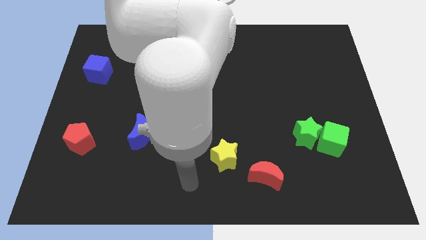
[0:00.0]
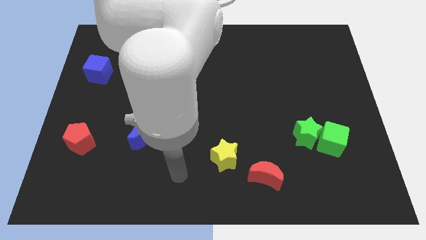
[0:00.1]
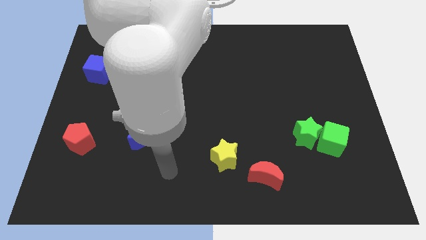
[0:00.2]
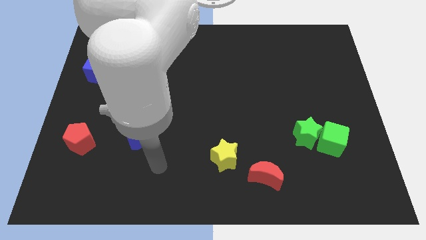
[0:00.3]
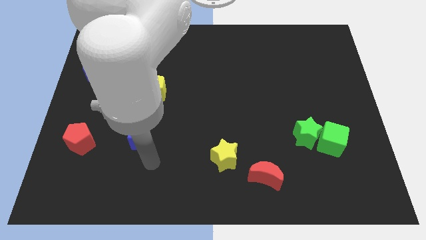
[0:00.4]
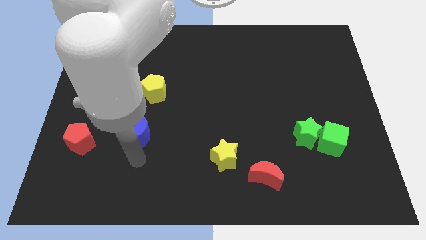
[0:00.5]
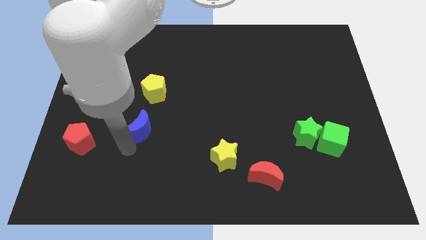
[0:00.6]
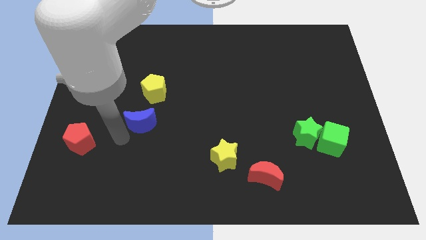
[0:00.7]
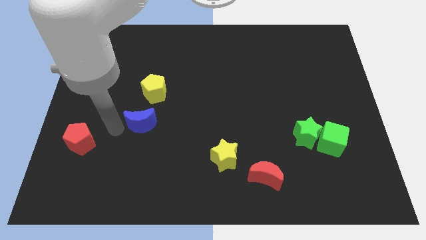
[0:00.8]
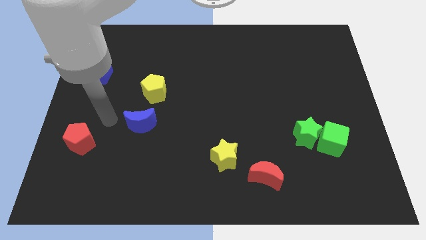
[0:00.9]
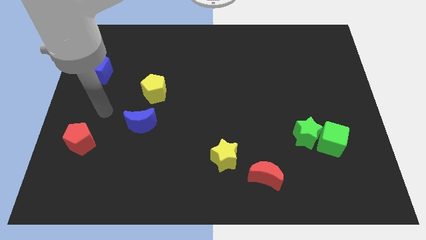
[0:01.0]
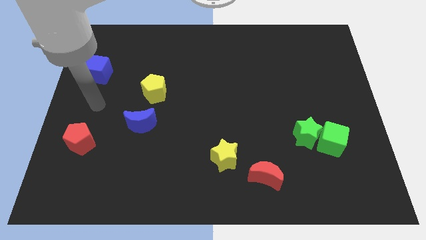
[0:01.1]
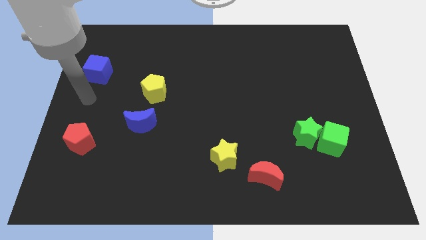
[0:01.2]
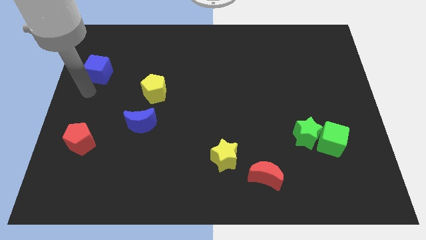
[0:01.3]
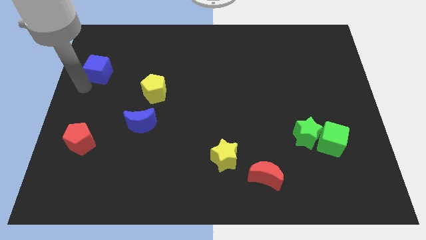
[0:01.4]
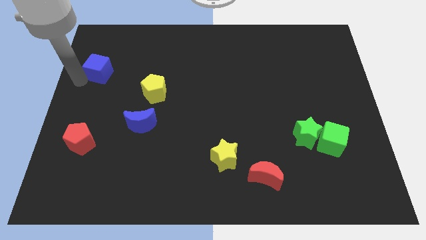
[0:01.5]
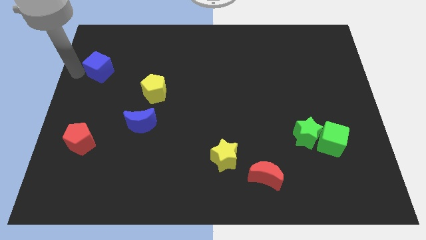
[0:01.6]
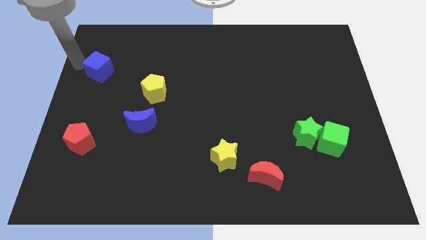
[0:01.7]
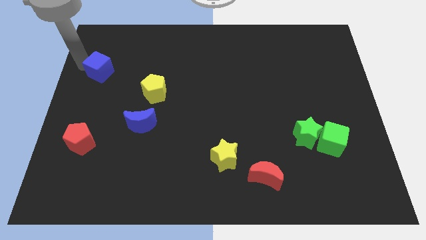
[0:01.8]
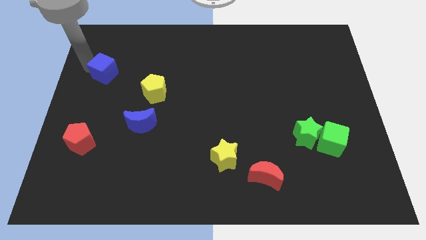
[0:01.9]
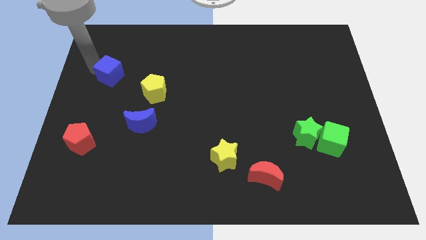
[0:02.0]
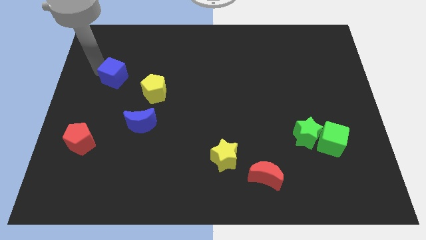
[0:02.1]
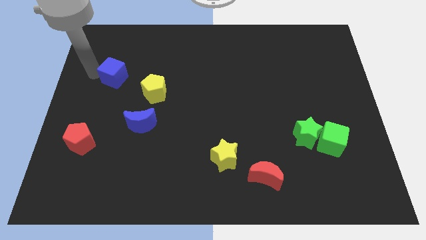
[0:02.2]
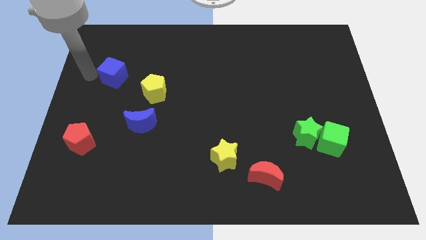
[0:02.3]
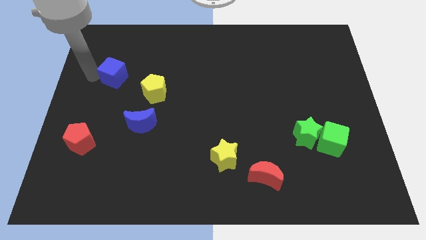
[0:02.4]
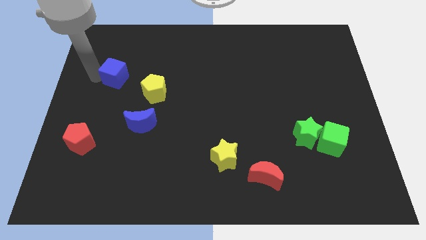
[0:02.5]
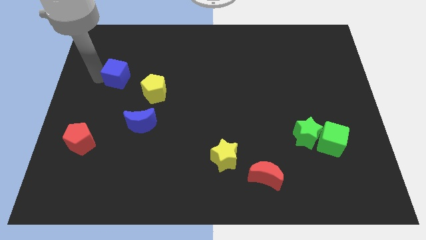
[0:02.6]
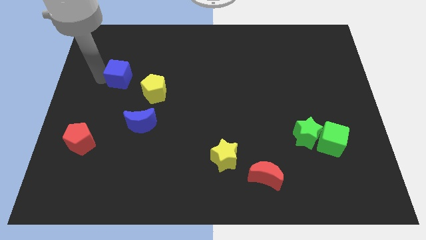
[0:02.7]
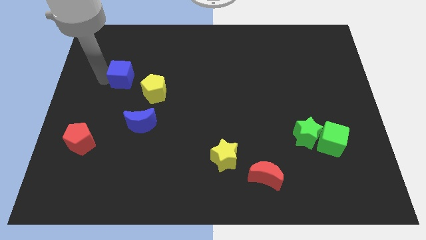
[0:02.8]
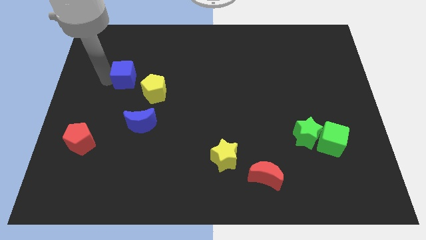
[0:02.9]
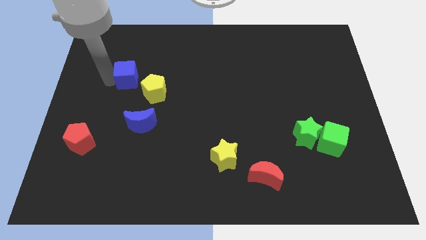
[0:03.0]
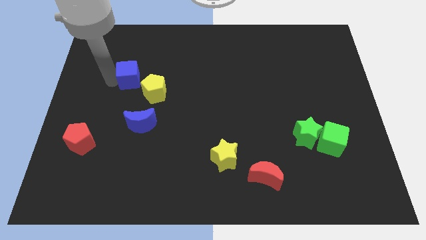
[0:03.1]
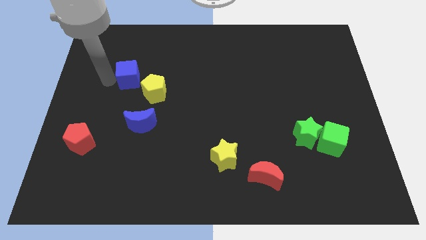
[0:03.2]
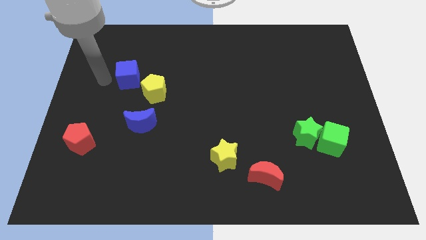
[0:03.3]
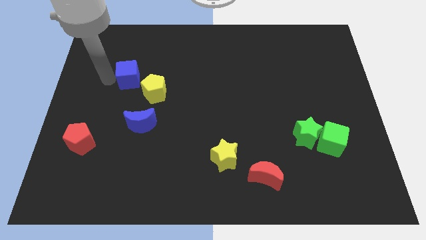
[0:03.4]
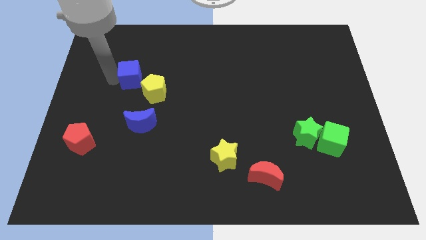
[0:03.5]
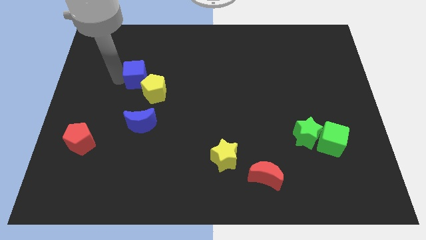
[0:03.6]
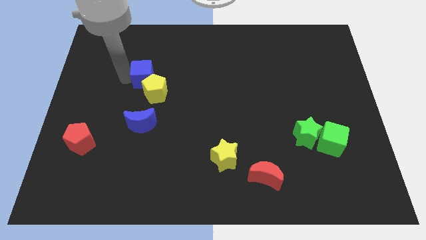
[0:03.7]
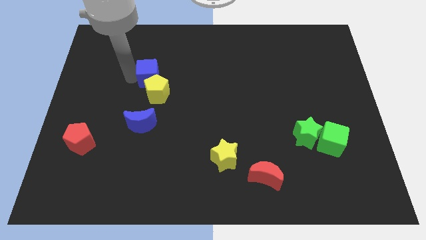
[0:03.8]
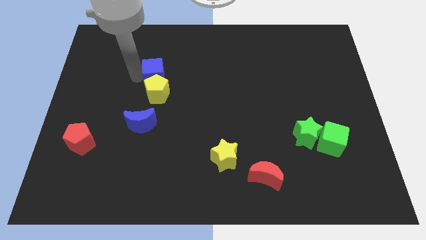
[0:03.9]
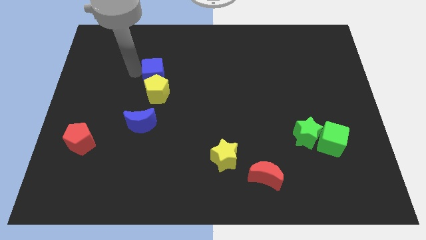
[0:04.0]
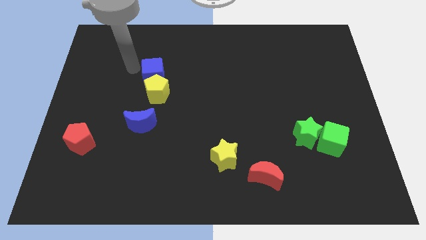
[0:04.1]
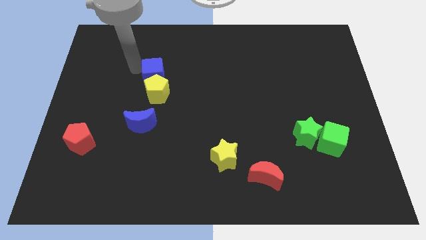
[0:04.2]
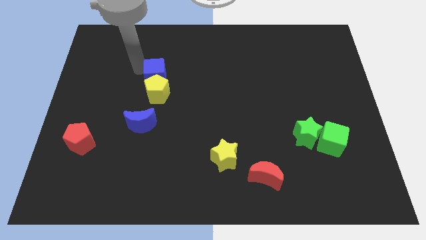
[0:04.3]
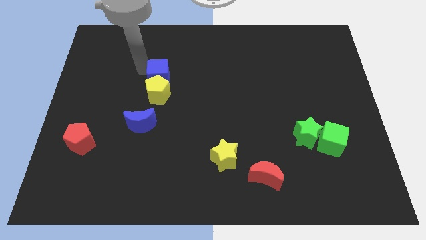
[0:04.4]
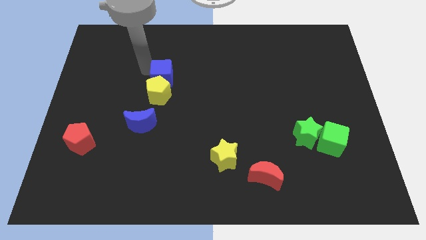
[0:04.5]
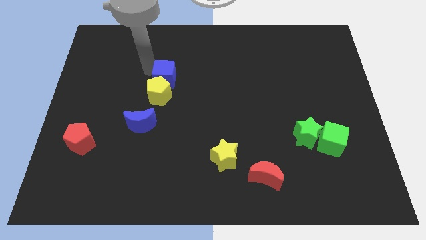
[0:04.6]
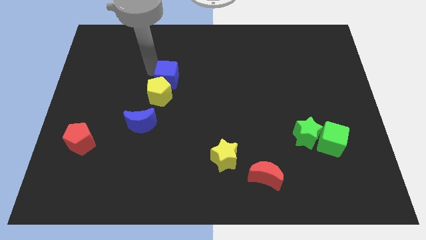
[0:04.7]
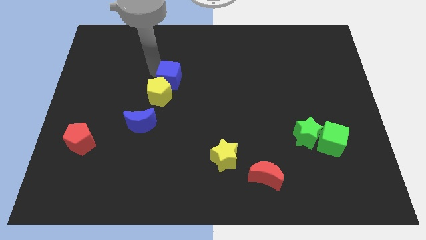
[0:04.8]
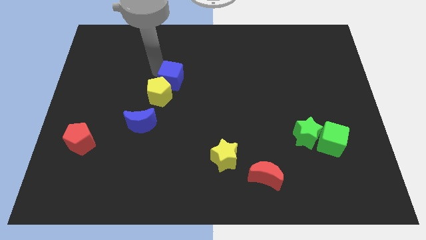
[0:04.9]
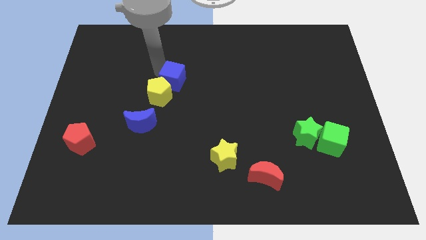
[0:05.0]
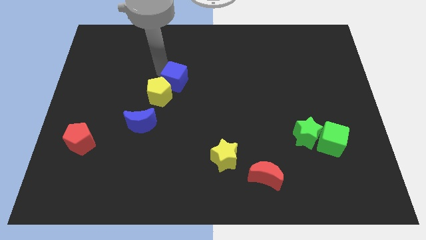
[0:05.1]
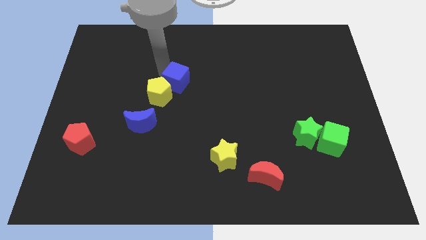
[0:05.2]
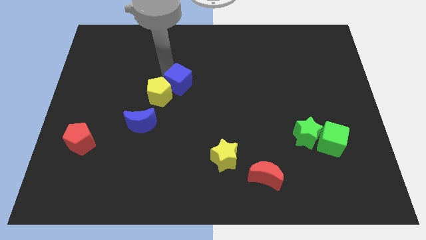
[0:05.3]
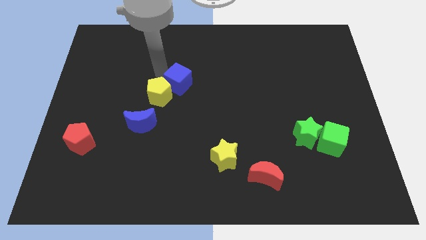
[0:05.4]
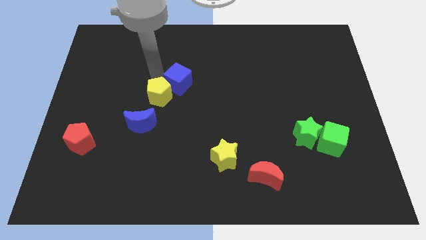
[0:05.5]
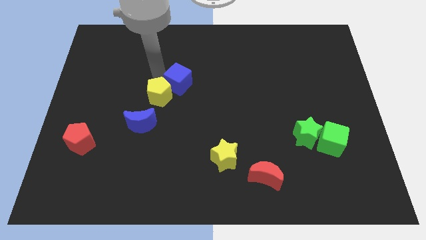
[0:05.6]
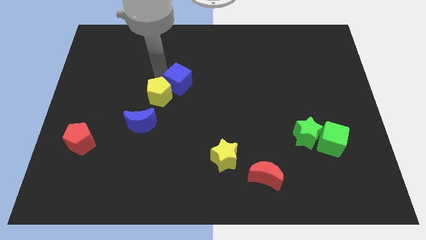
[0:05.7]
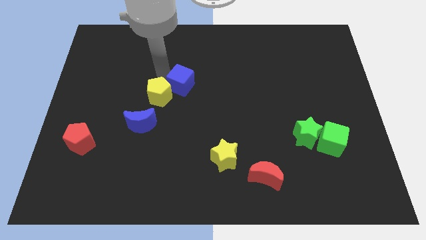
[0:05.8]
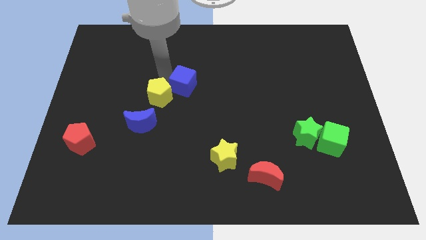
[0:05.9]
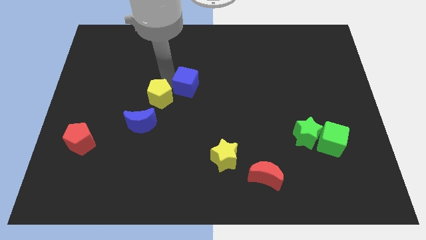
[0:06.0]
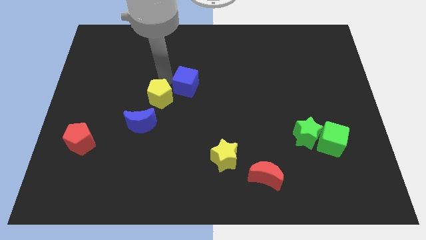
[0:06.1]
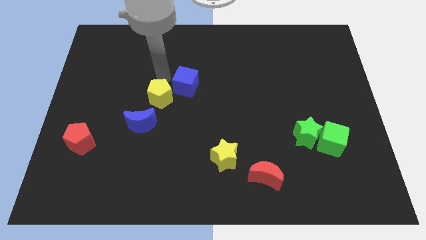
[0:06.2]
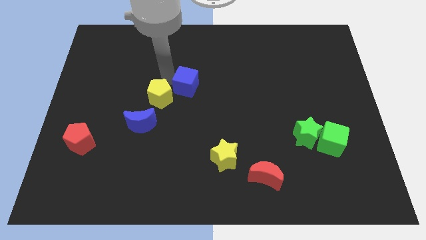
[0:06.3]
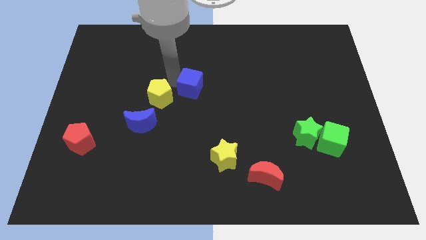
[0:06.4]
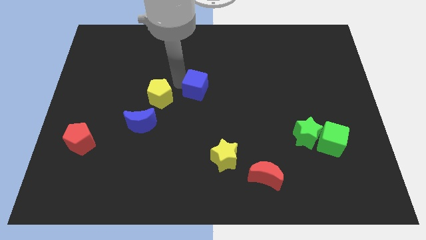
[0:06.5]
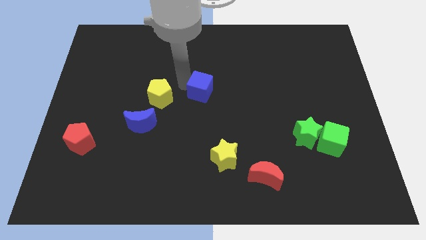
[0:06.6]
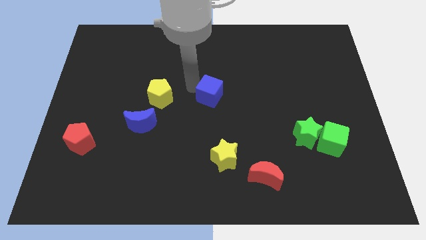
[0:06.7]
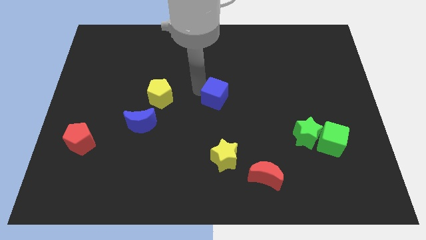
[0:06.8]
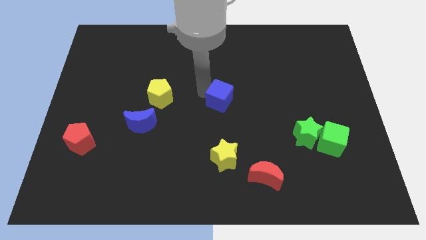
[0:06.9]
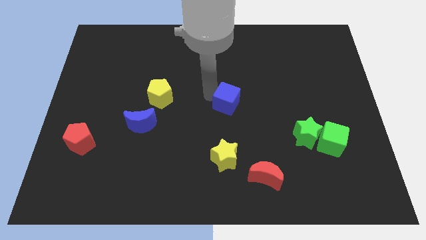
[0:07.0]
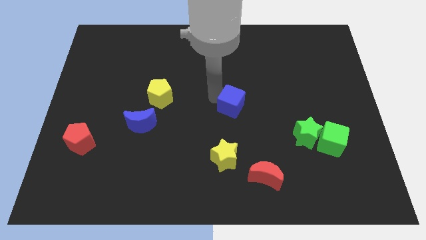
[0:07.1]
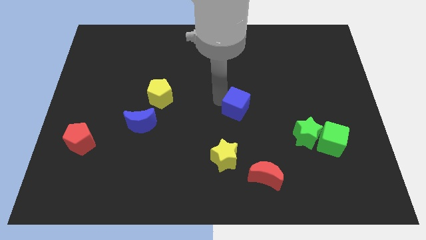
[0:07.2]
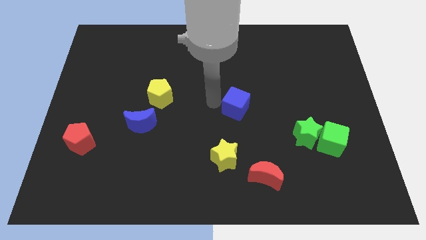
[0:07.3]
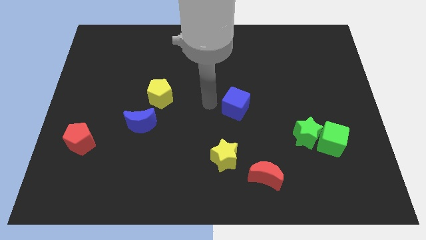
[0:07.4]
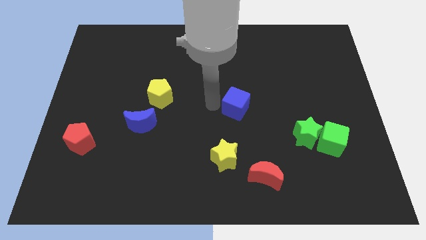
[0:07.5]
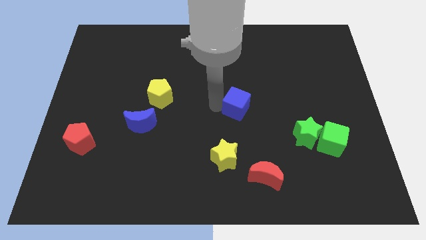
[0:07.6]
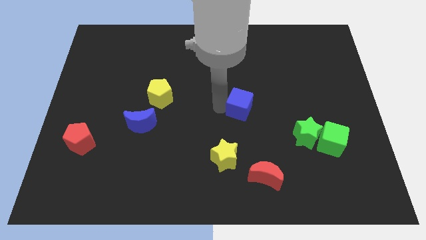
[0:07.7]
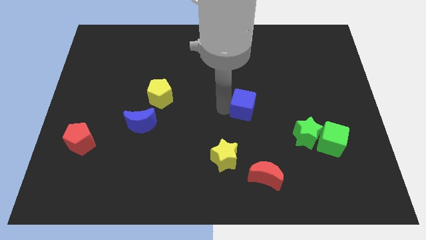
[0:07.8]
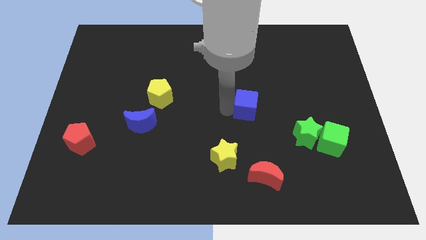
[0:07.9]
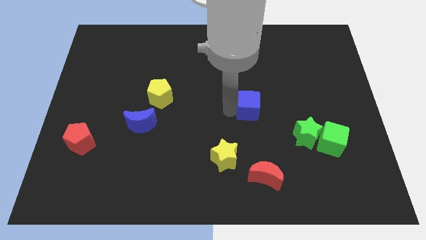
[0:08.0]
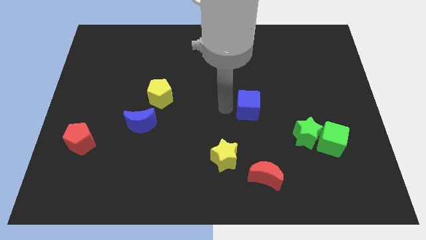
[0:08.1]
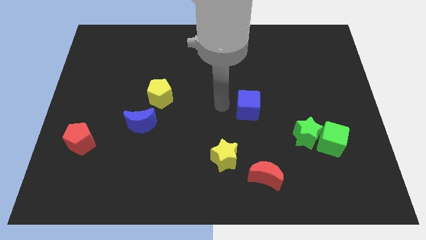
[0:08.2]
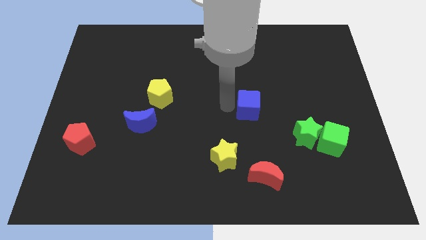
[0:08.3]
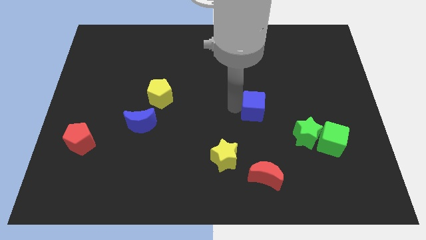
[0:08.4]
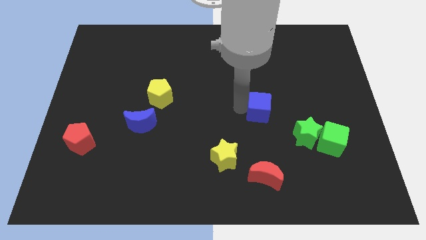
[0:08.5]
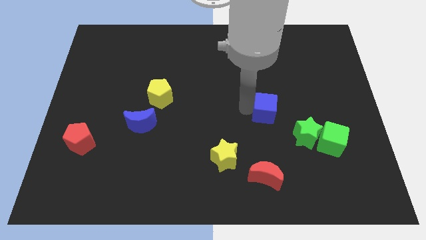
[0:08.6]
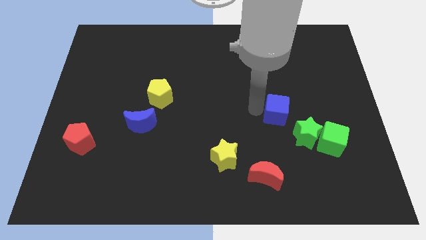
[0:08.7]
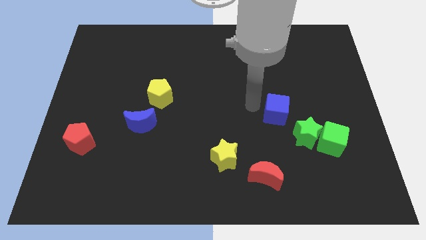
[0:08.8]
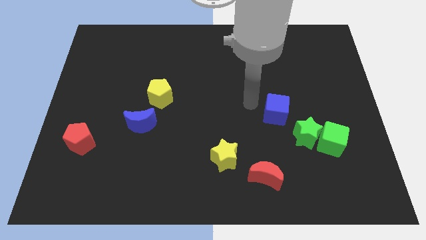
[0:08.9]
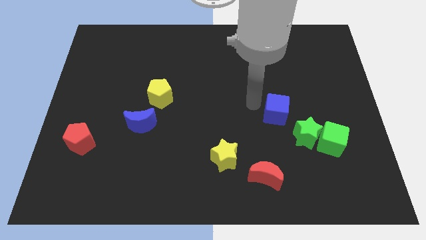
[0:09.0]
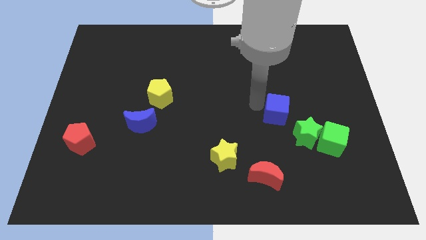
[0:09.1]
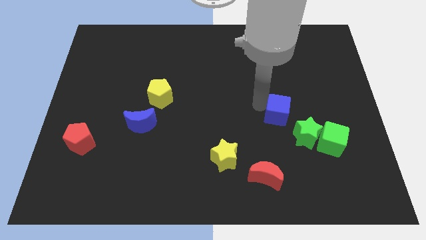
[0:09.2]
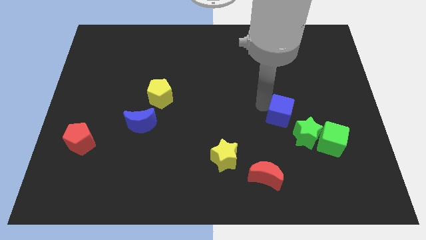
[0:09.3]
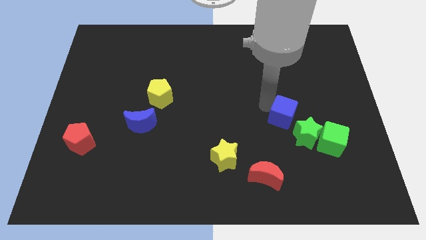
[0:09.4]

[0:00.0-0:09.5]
slide the blue cube to the top left side of the green cube
